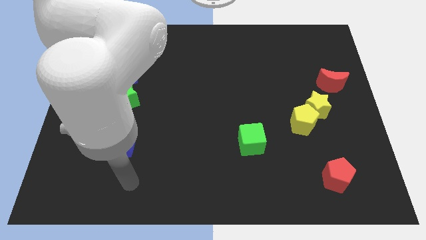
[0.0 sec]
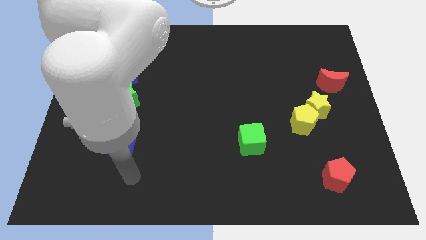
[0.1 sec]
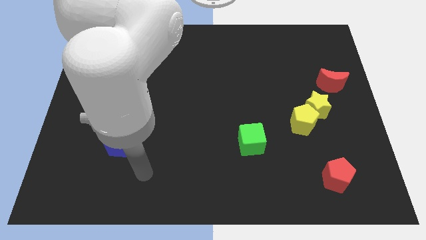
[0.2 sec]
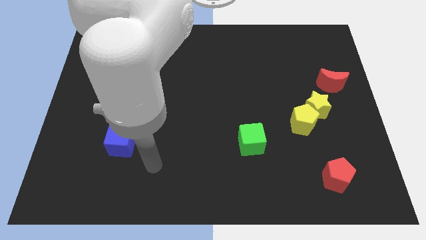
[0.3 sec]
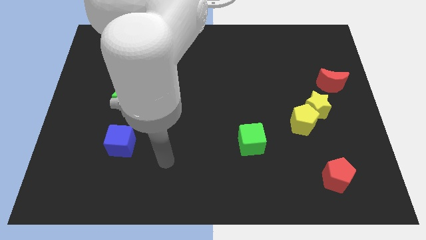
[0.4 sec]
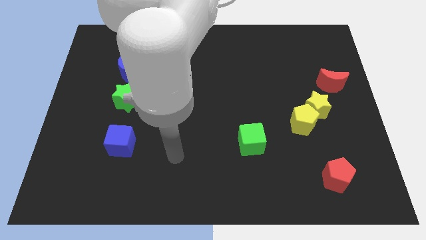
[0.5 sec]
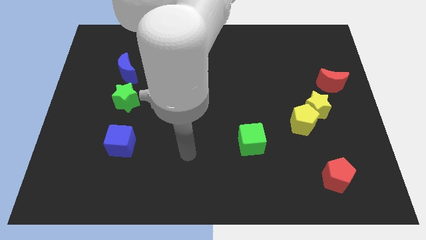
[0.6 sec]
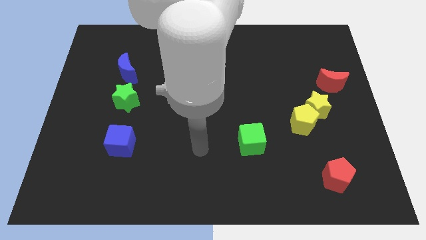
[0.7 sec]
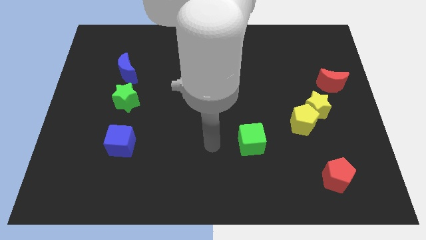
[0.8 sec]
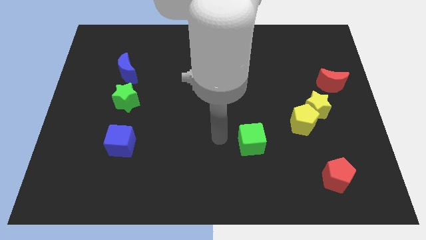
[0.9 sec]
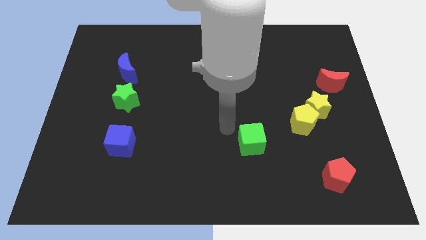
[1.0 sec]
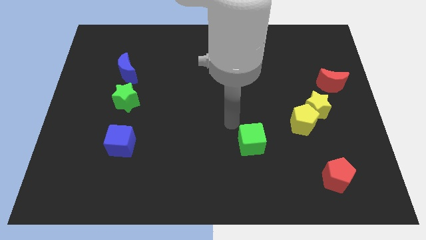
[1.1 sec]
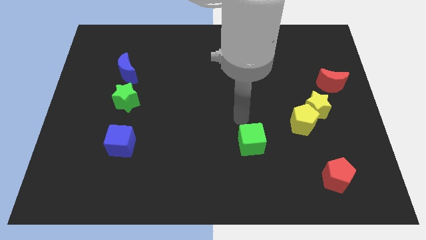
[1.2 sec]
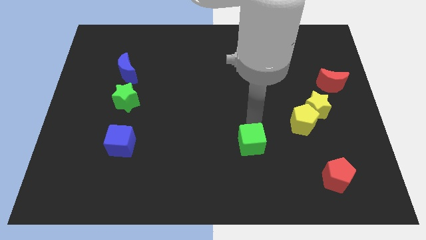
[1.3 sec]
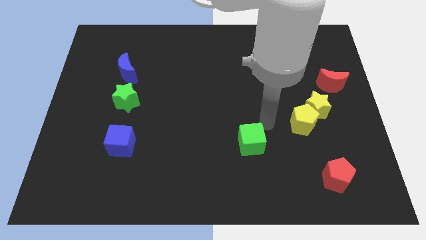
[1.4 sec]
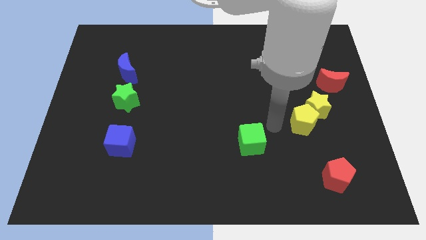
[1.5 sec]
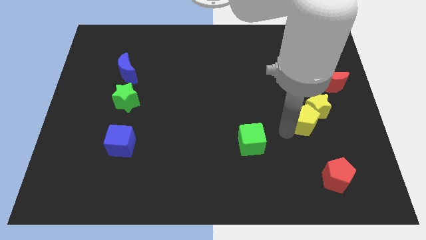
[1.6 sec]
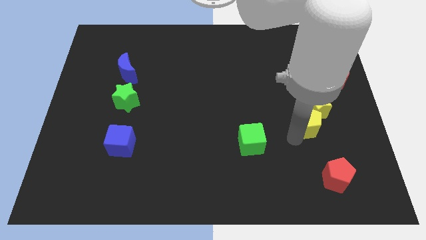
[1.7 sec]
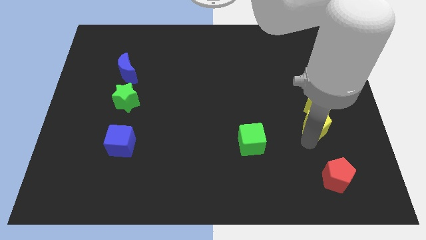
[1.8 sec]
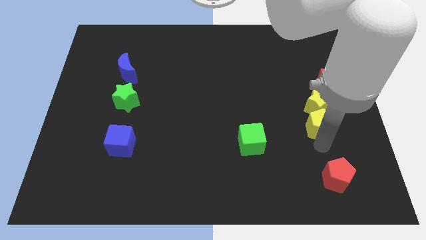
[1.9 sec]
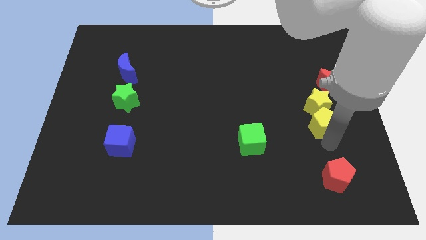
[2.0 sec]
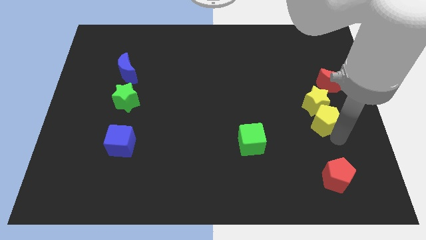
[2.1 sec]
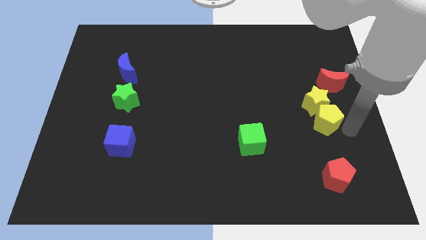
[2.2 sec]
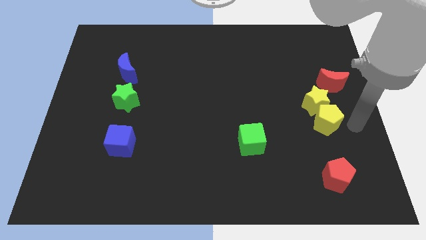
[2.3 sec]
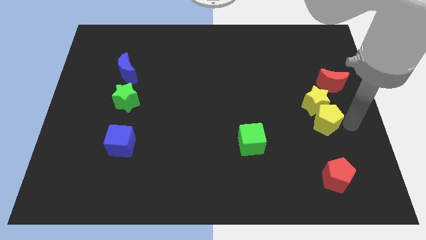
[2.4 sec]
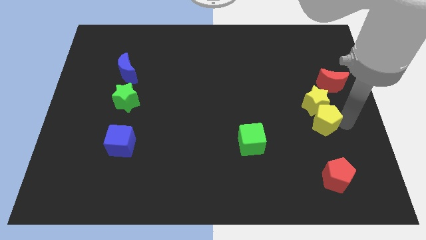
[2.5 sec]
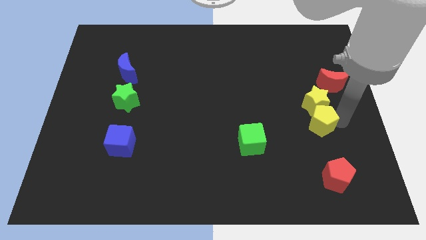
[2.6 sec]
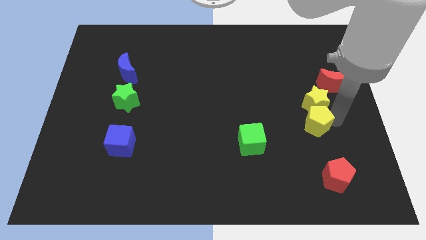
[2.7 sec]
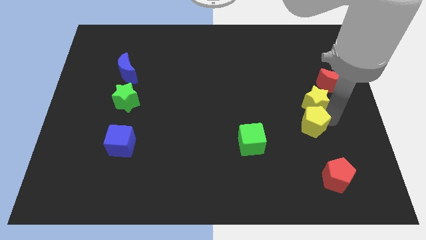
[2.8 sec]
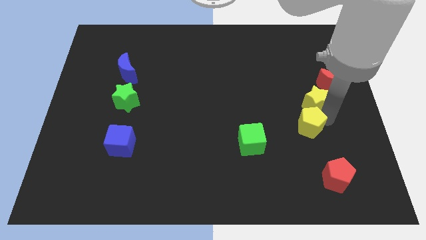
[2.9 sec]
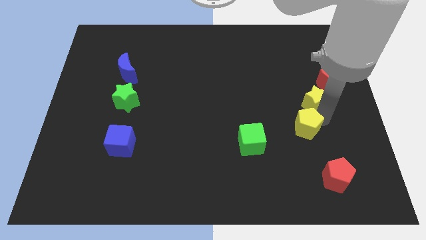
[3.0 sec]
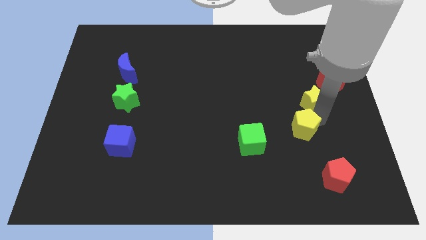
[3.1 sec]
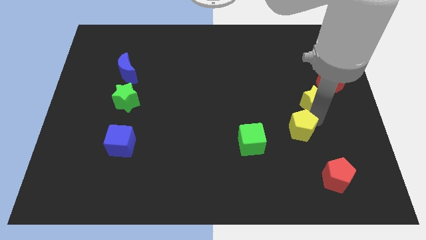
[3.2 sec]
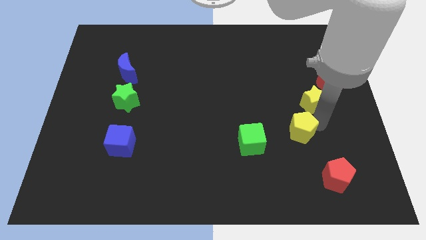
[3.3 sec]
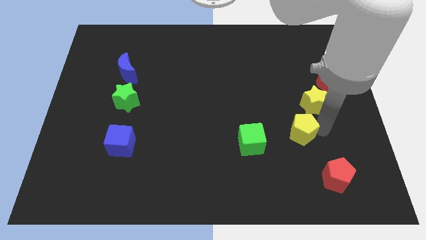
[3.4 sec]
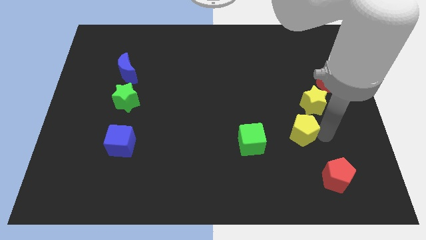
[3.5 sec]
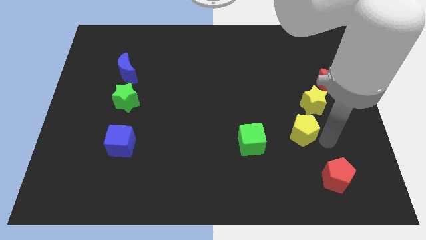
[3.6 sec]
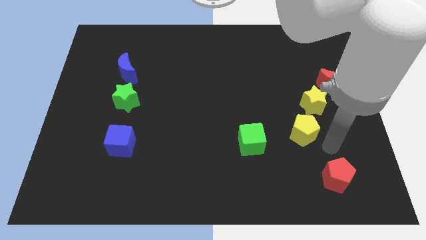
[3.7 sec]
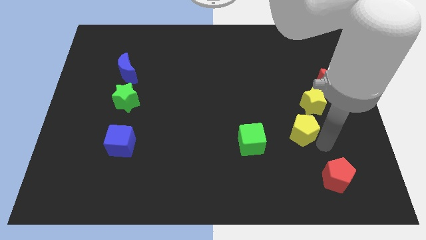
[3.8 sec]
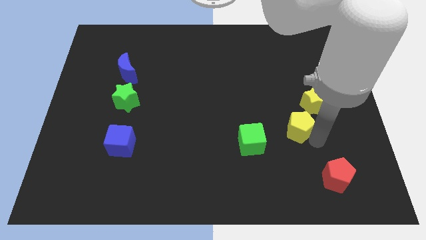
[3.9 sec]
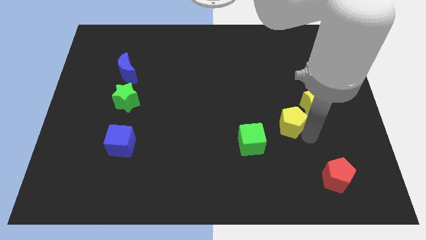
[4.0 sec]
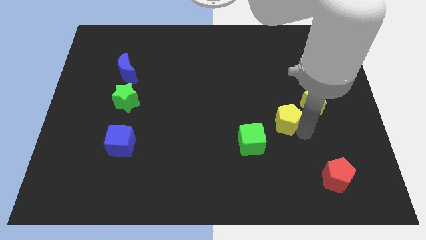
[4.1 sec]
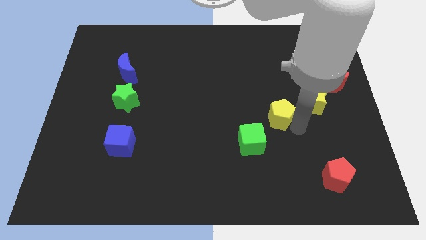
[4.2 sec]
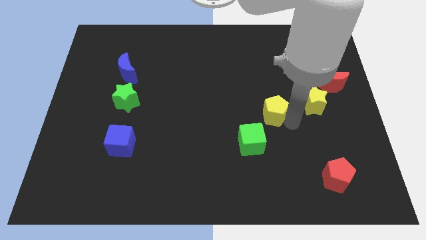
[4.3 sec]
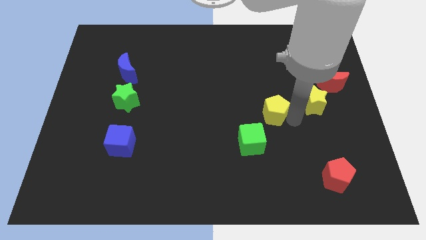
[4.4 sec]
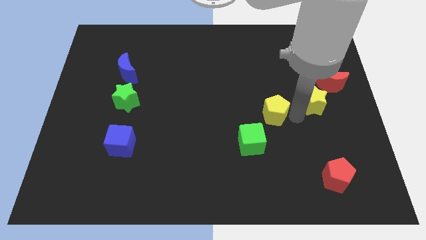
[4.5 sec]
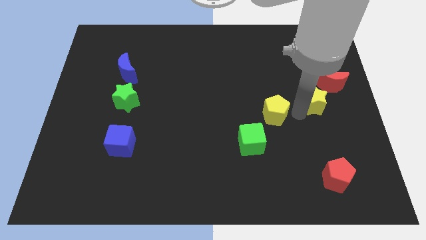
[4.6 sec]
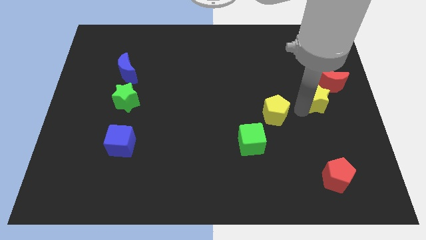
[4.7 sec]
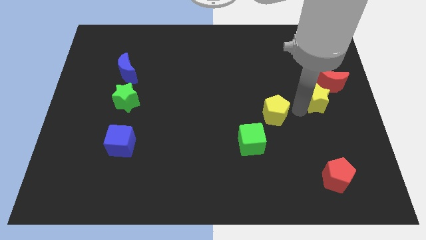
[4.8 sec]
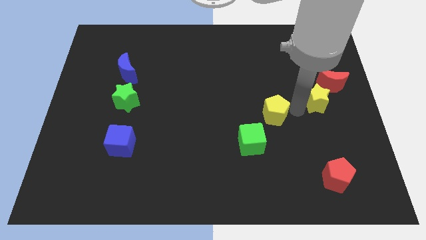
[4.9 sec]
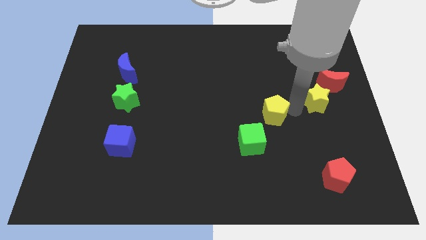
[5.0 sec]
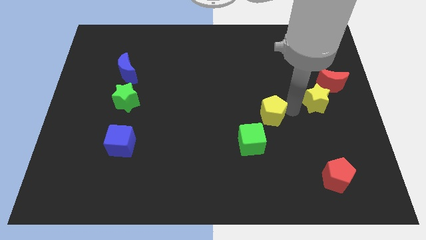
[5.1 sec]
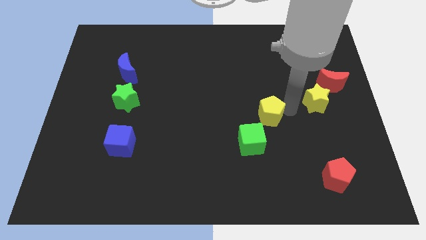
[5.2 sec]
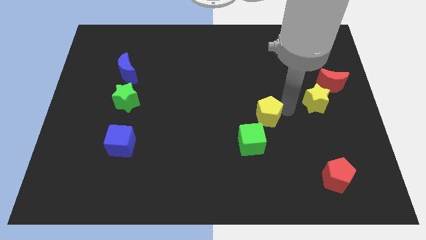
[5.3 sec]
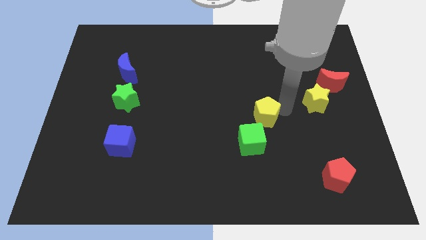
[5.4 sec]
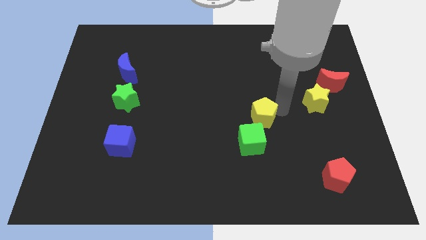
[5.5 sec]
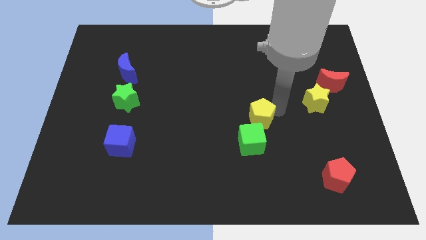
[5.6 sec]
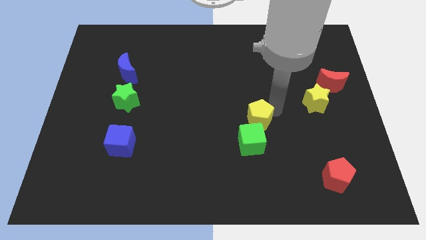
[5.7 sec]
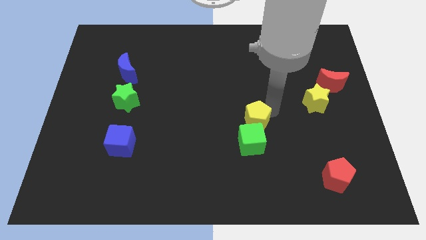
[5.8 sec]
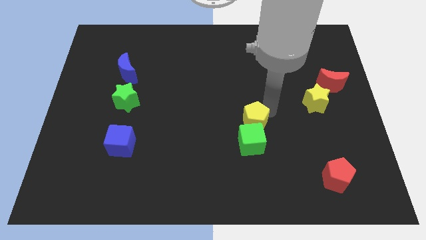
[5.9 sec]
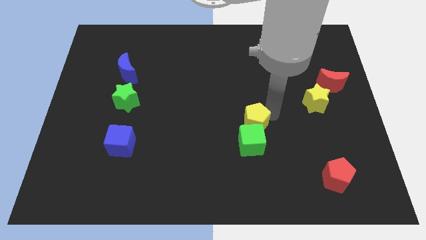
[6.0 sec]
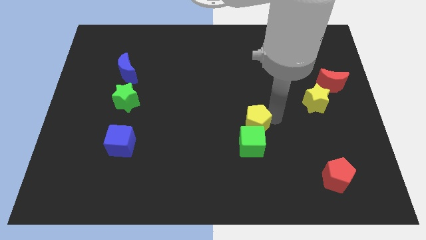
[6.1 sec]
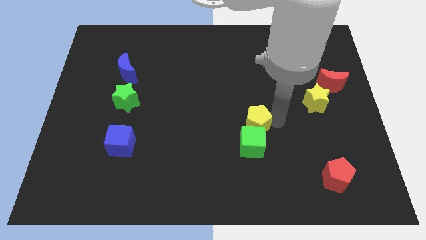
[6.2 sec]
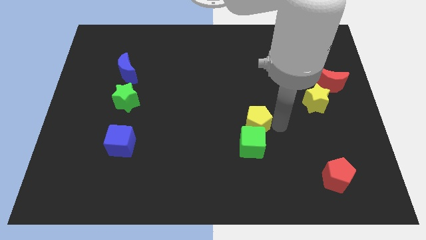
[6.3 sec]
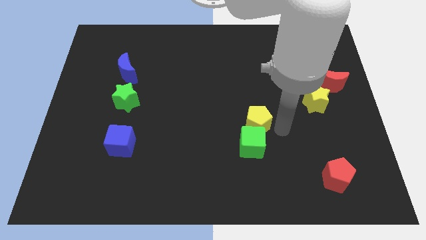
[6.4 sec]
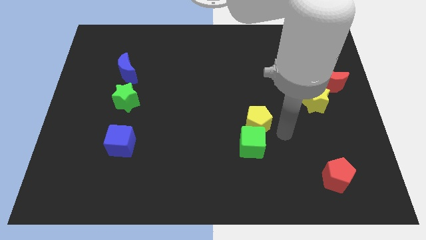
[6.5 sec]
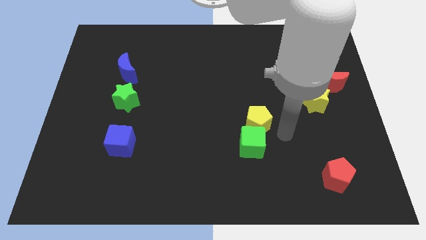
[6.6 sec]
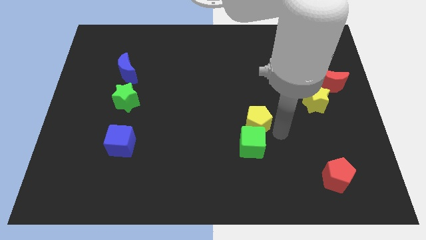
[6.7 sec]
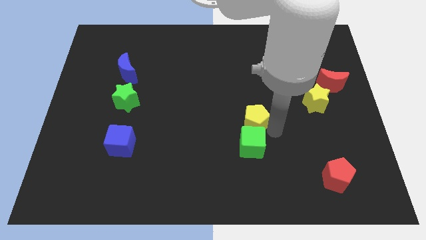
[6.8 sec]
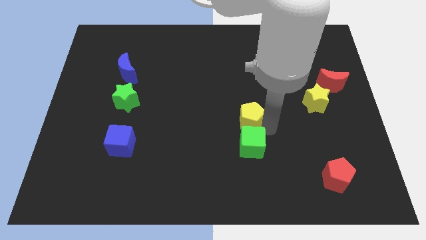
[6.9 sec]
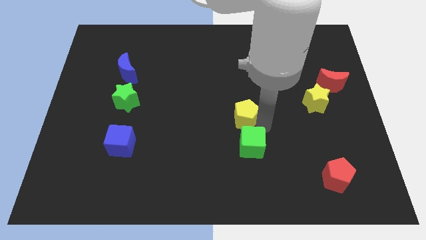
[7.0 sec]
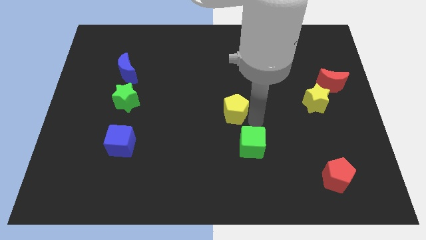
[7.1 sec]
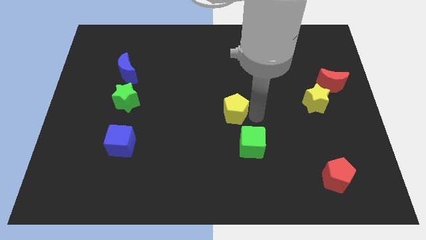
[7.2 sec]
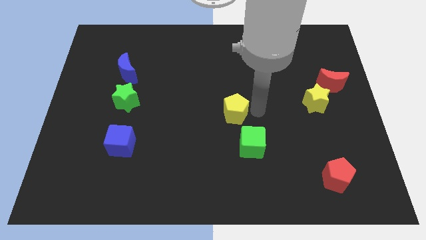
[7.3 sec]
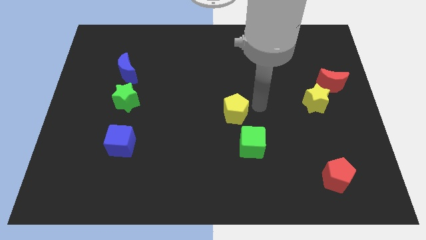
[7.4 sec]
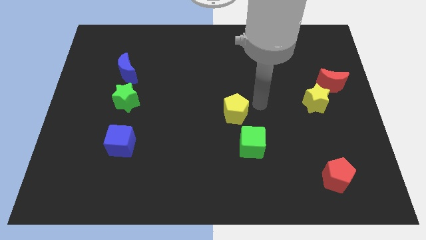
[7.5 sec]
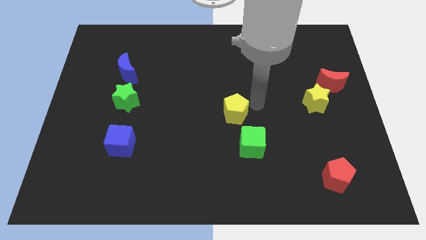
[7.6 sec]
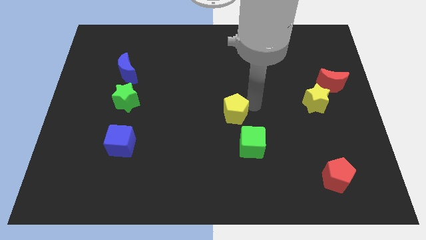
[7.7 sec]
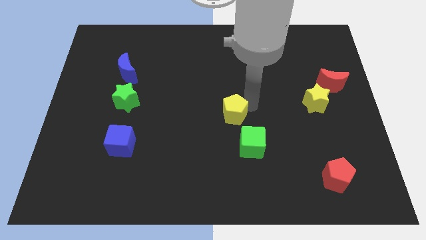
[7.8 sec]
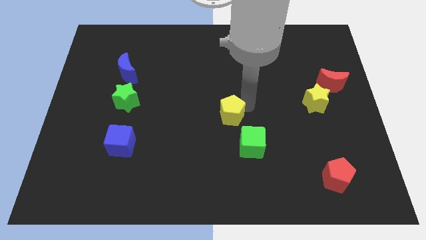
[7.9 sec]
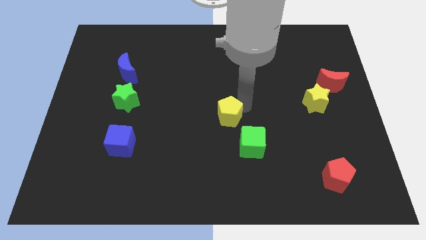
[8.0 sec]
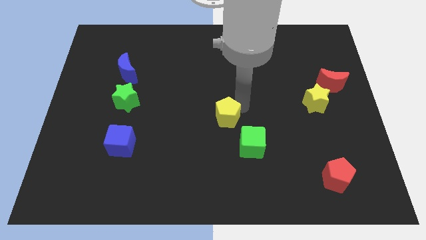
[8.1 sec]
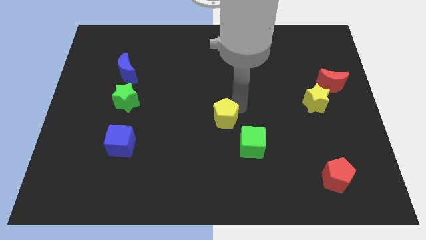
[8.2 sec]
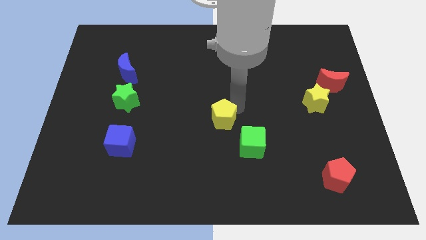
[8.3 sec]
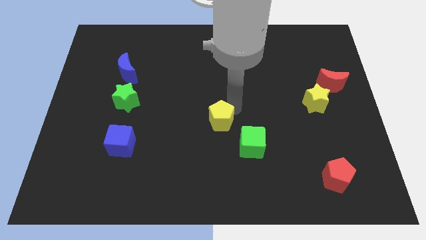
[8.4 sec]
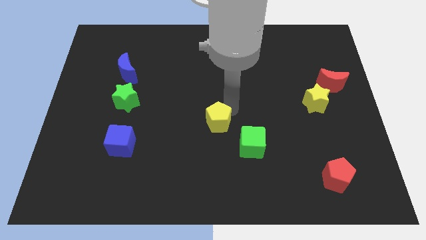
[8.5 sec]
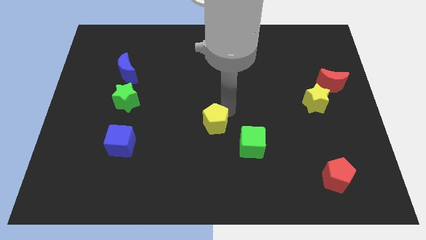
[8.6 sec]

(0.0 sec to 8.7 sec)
push the yellow pentagon to the left
